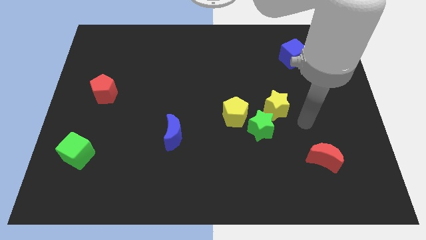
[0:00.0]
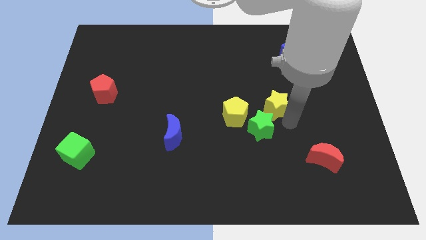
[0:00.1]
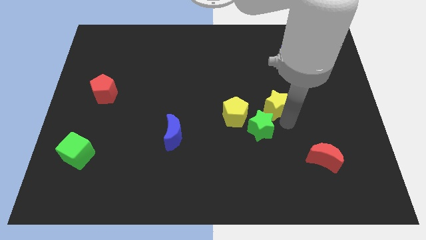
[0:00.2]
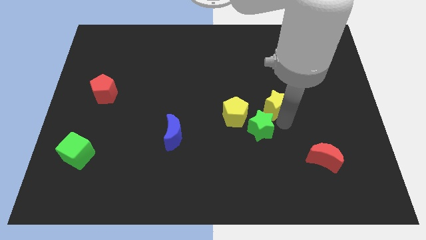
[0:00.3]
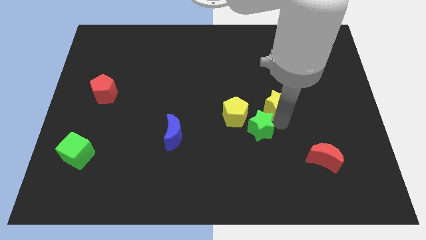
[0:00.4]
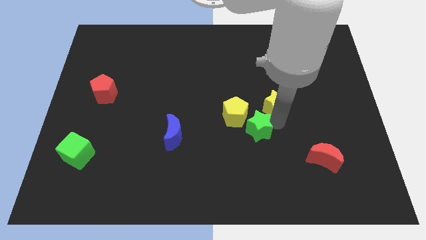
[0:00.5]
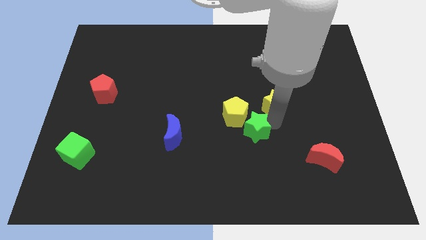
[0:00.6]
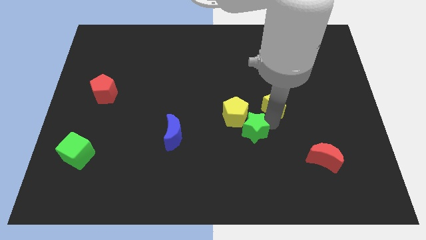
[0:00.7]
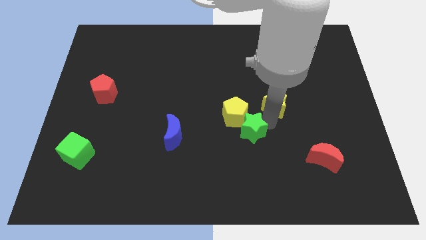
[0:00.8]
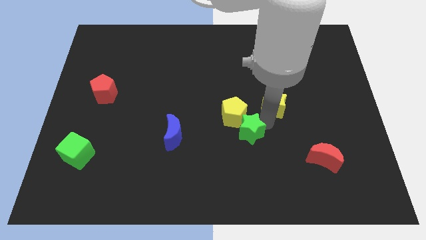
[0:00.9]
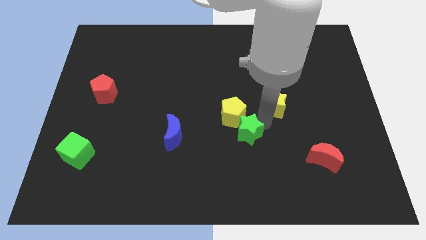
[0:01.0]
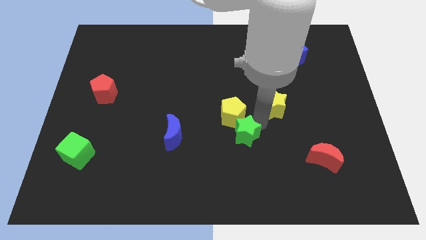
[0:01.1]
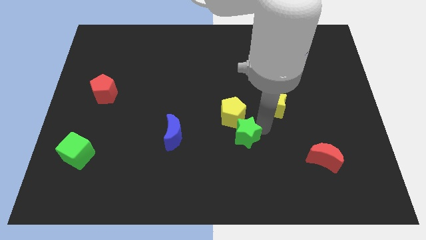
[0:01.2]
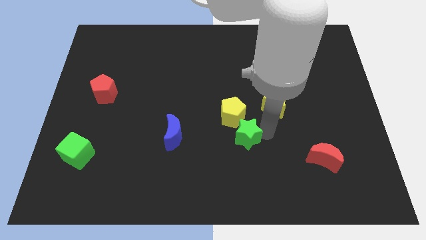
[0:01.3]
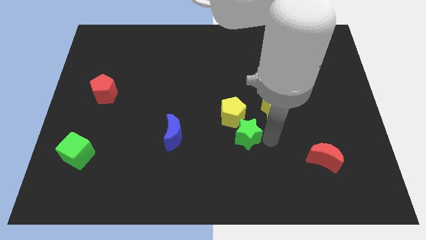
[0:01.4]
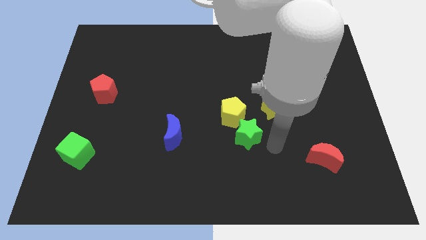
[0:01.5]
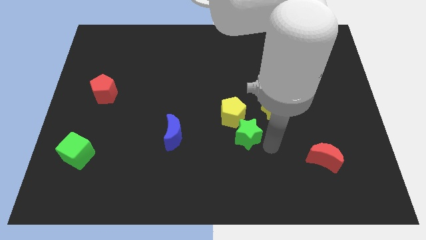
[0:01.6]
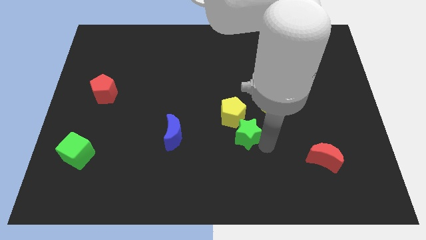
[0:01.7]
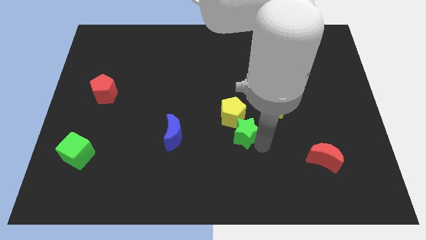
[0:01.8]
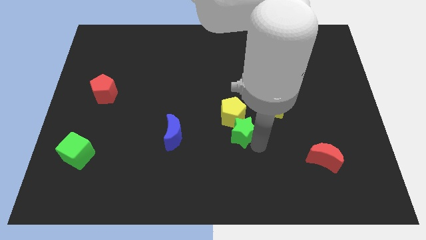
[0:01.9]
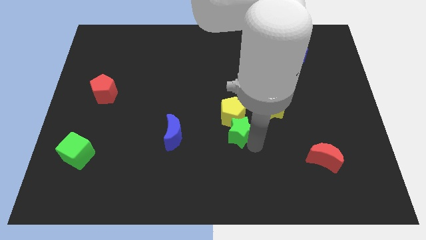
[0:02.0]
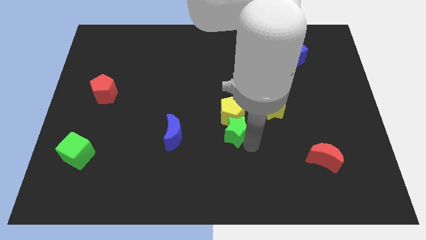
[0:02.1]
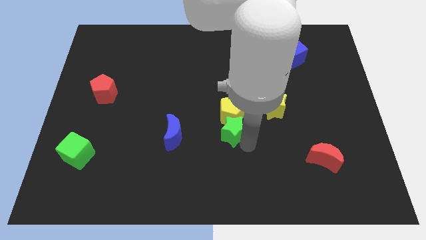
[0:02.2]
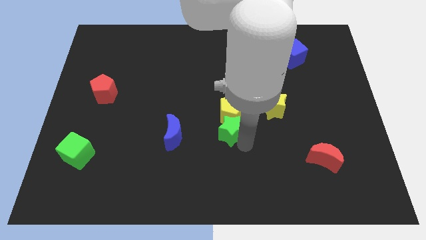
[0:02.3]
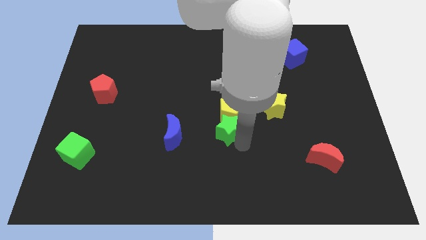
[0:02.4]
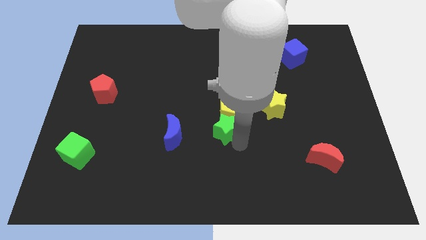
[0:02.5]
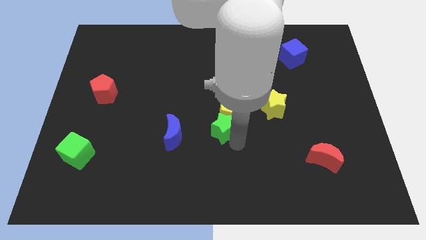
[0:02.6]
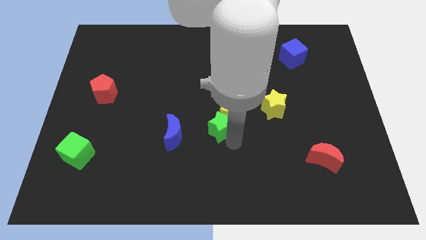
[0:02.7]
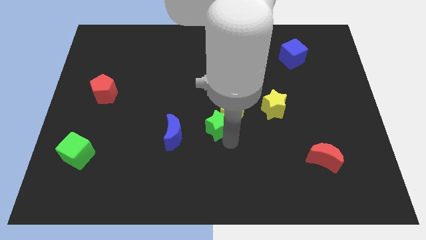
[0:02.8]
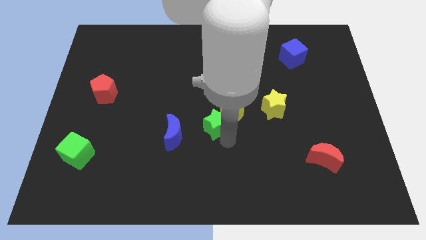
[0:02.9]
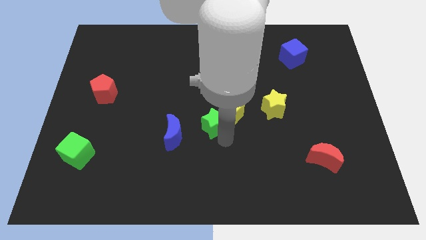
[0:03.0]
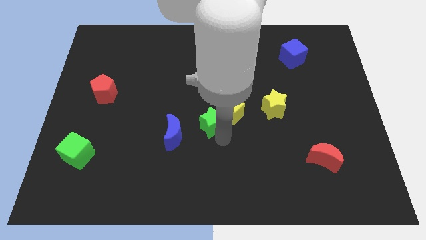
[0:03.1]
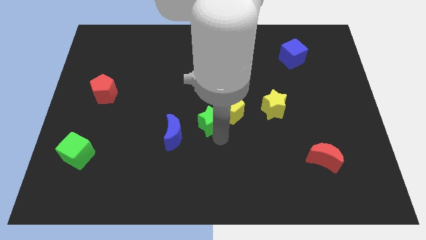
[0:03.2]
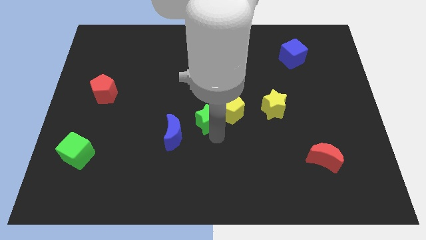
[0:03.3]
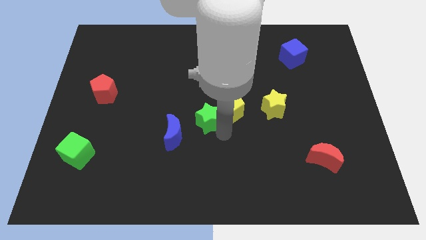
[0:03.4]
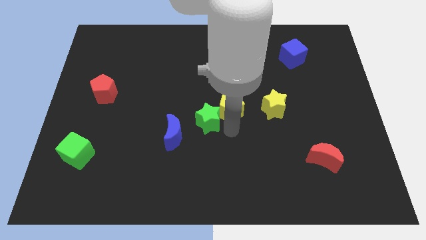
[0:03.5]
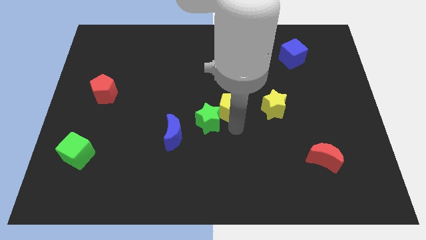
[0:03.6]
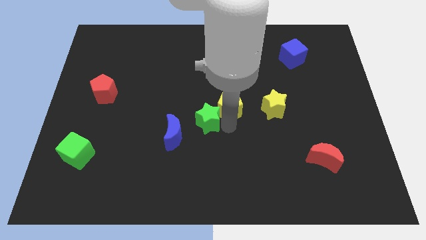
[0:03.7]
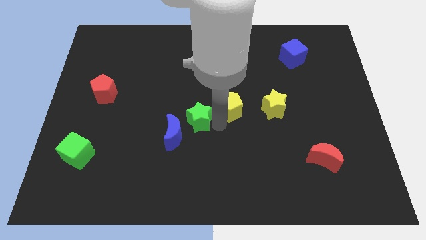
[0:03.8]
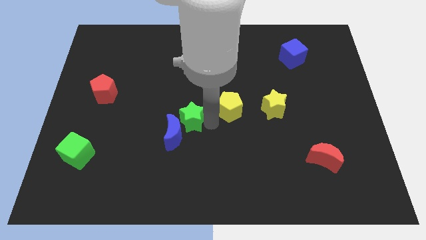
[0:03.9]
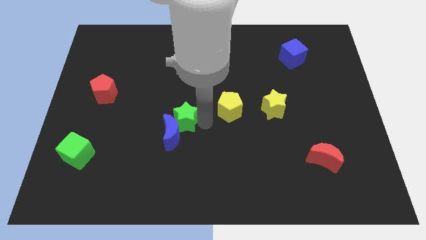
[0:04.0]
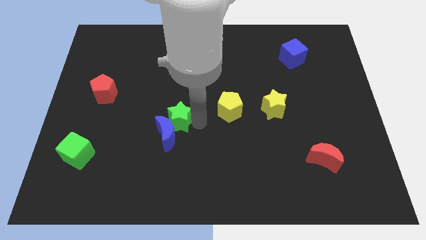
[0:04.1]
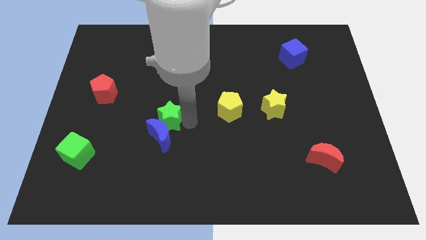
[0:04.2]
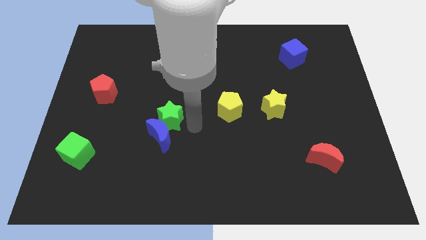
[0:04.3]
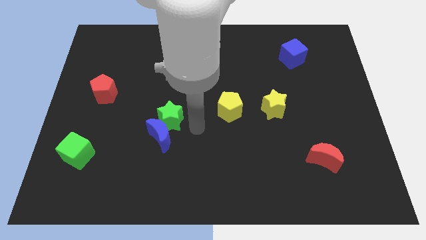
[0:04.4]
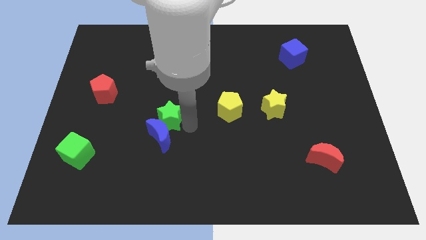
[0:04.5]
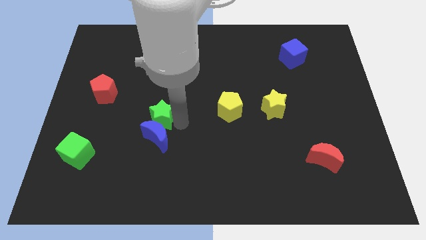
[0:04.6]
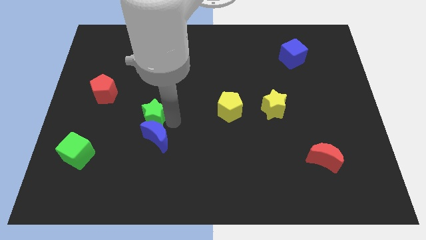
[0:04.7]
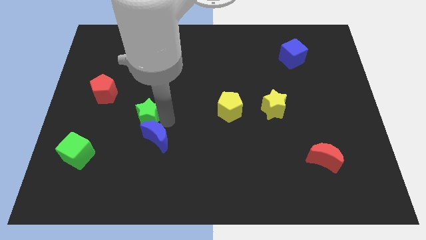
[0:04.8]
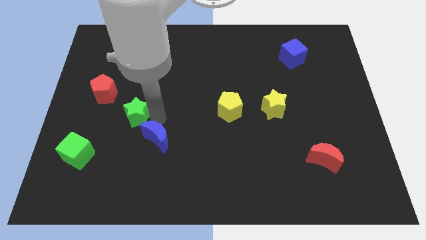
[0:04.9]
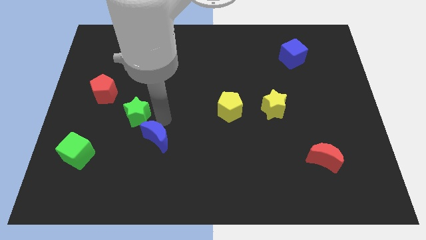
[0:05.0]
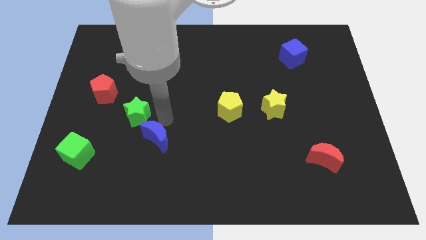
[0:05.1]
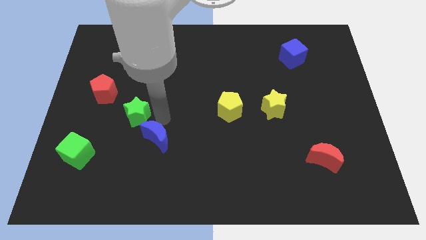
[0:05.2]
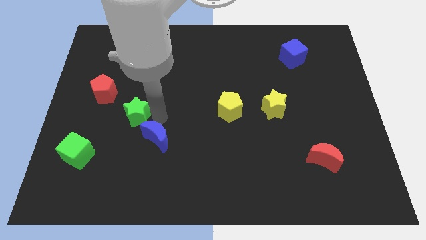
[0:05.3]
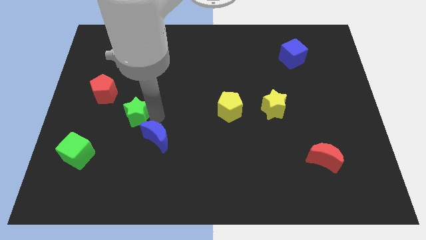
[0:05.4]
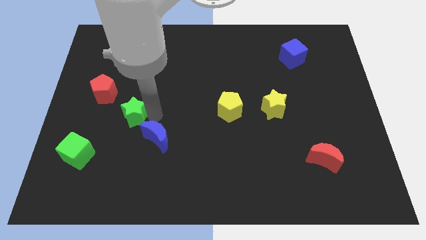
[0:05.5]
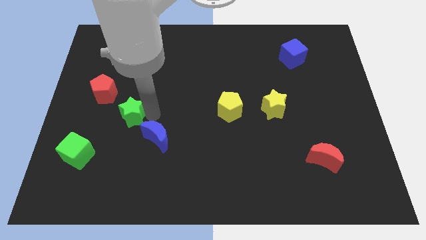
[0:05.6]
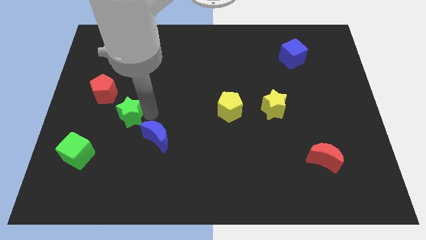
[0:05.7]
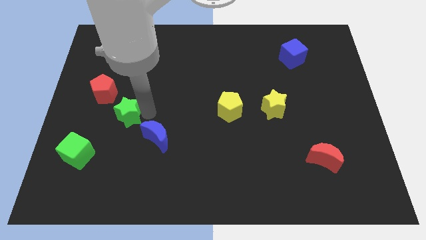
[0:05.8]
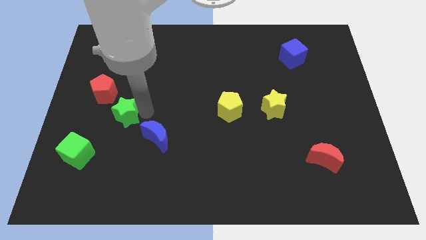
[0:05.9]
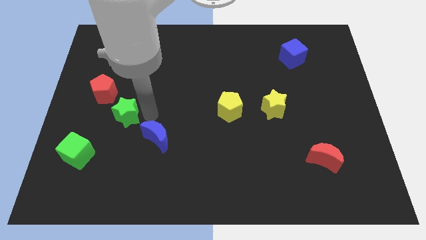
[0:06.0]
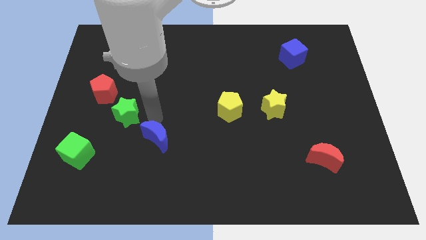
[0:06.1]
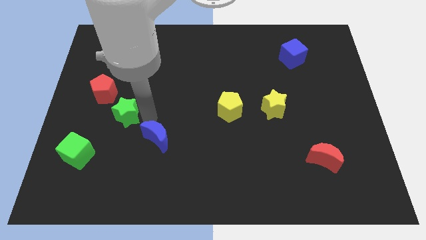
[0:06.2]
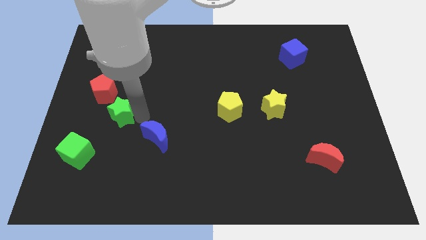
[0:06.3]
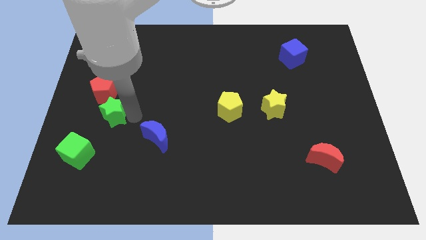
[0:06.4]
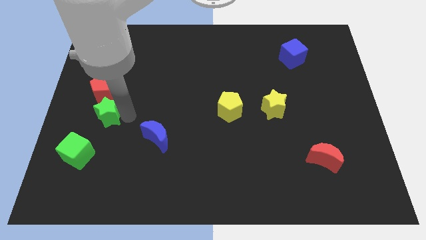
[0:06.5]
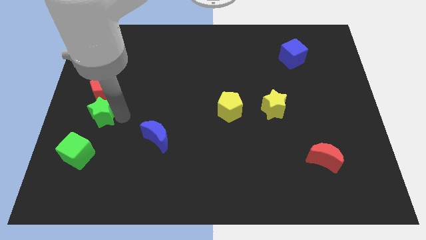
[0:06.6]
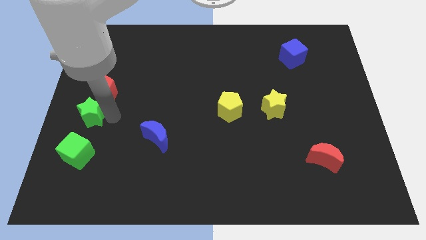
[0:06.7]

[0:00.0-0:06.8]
move the green star to the left side
